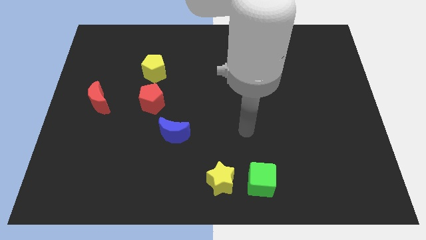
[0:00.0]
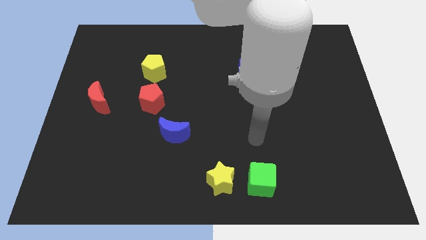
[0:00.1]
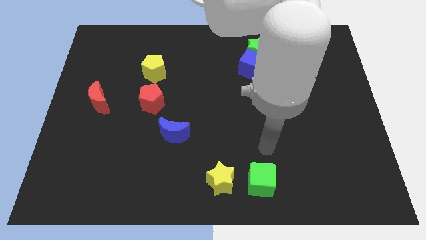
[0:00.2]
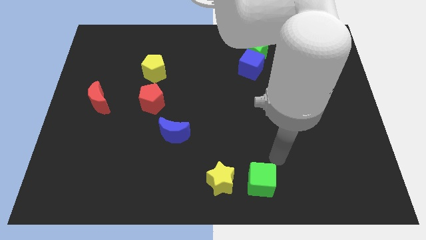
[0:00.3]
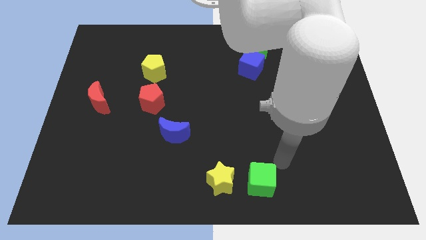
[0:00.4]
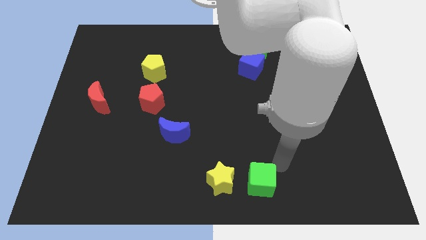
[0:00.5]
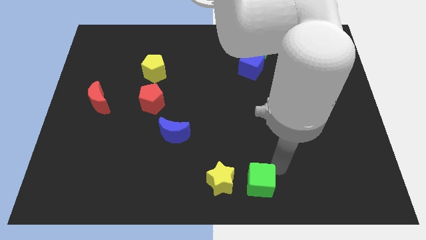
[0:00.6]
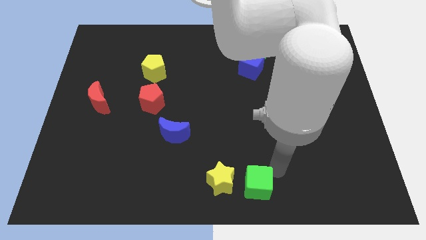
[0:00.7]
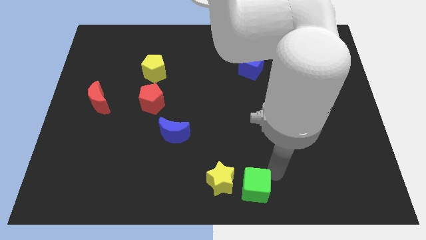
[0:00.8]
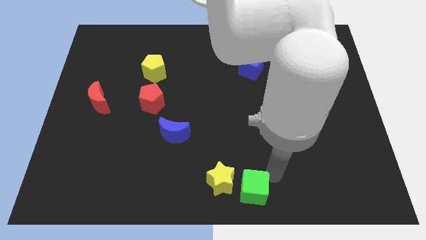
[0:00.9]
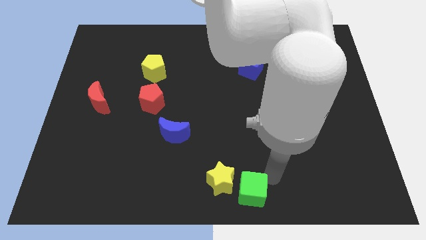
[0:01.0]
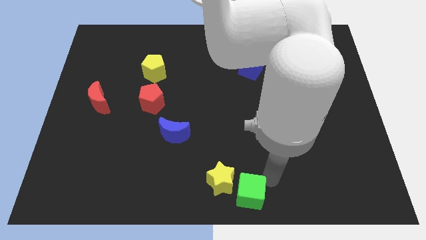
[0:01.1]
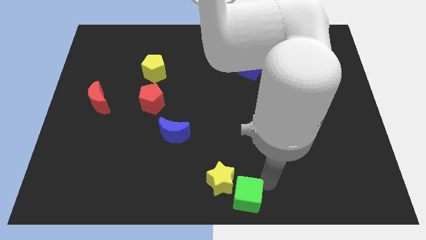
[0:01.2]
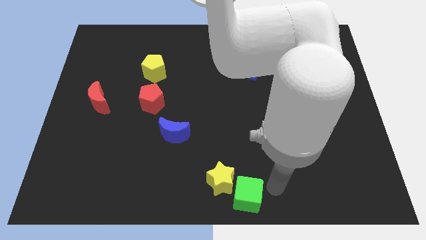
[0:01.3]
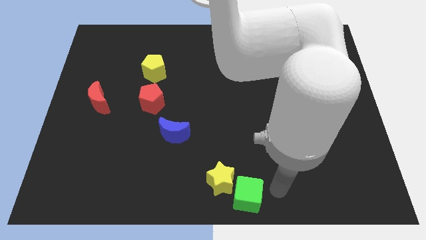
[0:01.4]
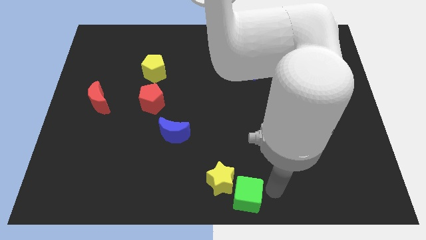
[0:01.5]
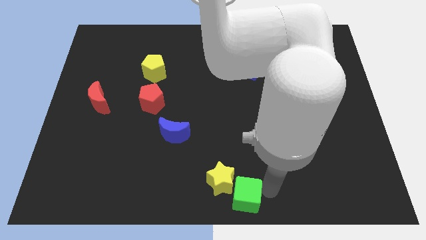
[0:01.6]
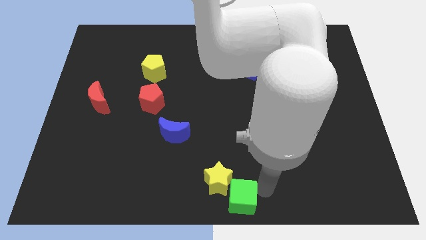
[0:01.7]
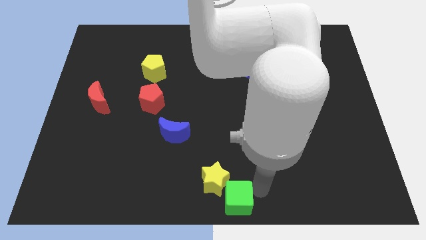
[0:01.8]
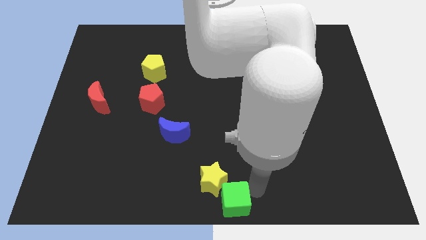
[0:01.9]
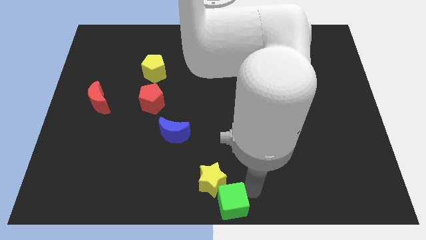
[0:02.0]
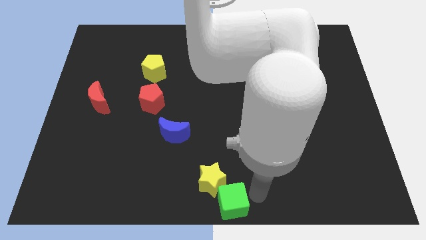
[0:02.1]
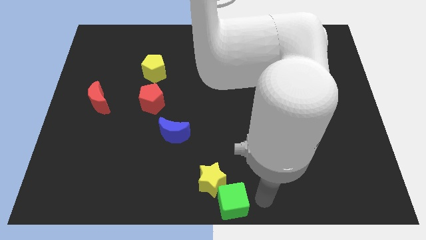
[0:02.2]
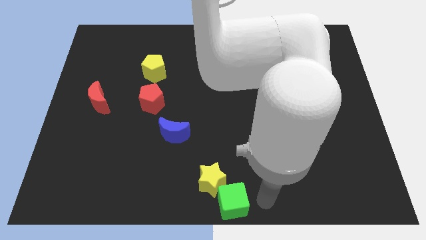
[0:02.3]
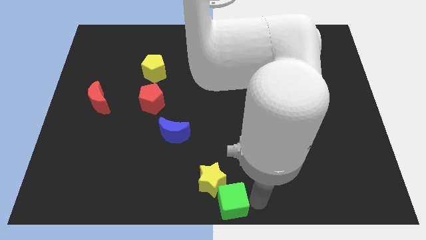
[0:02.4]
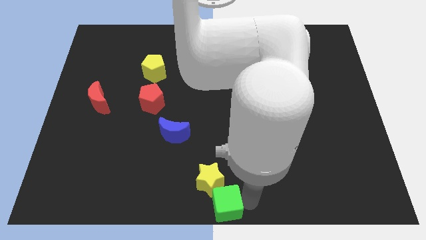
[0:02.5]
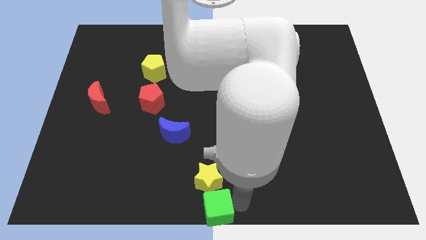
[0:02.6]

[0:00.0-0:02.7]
slide the green cube to the left a little bit

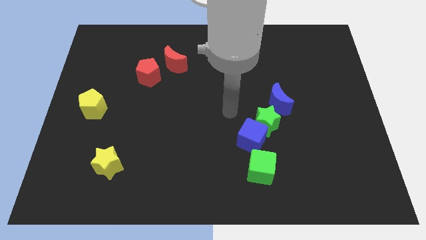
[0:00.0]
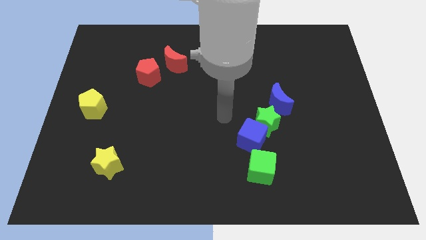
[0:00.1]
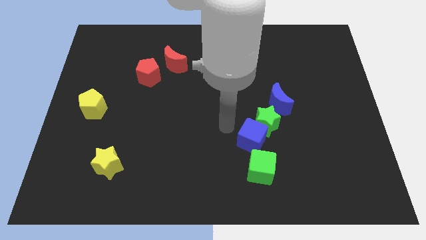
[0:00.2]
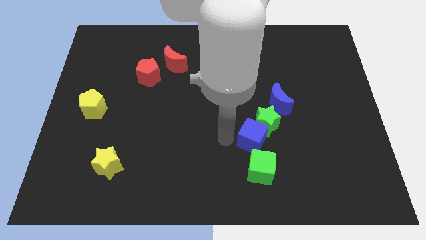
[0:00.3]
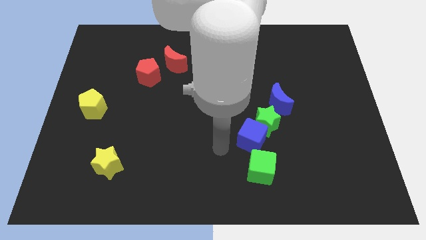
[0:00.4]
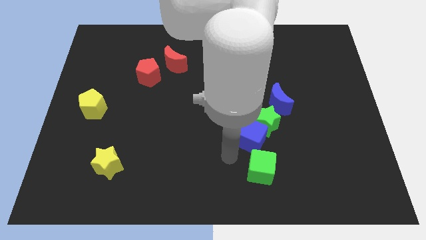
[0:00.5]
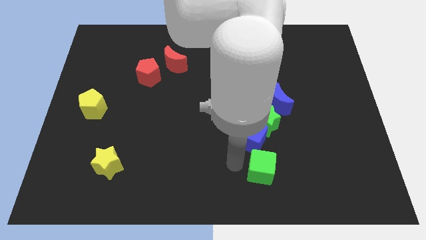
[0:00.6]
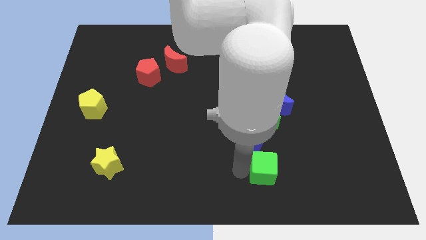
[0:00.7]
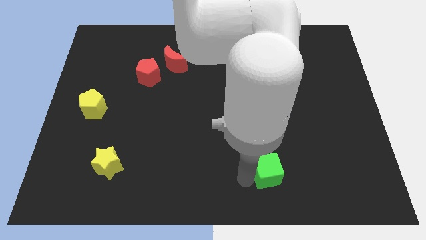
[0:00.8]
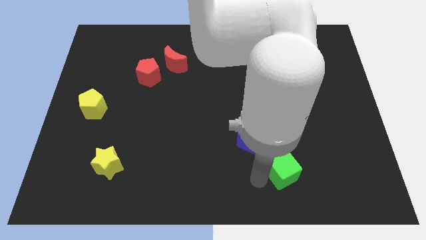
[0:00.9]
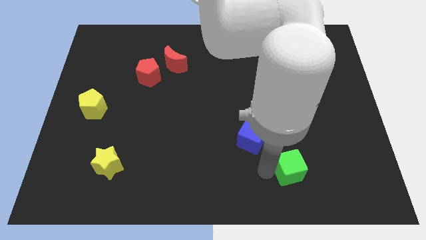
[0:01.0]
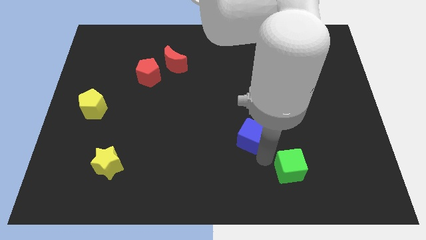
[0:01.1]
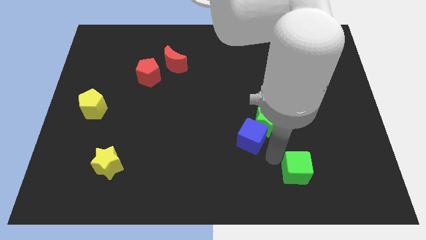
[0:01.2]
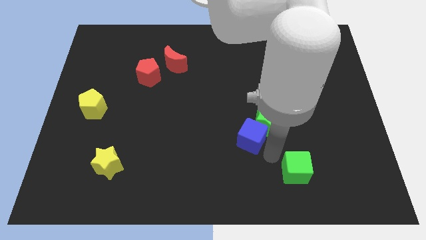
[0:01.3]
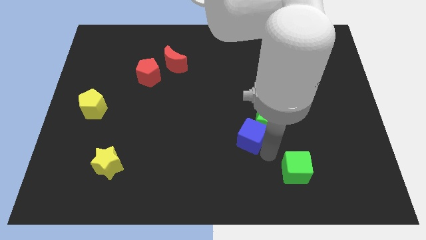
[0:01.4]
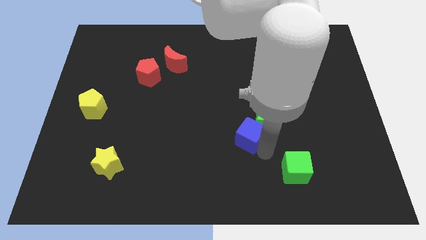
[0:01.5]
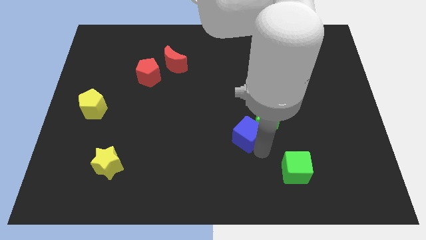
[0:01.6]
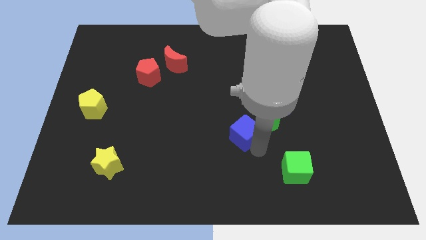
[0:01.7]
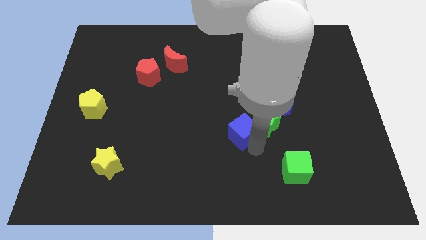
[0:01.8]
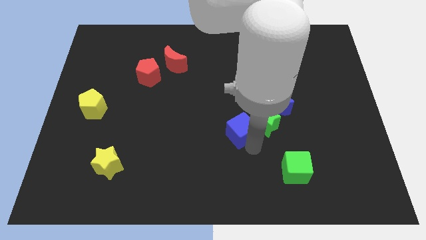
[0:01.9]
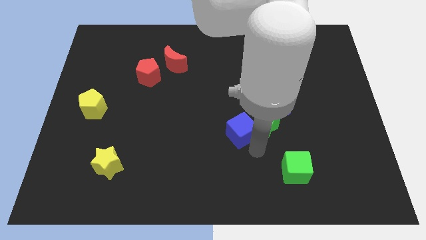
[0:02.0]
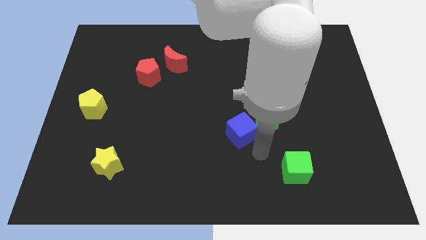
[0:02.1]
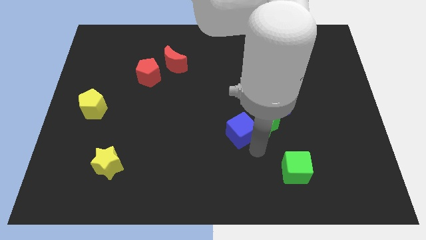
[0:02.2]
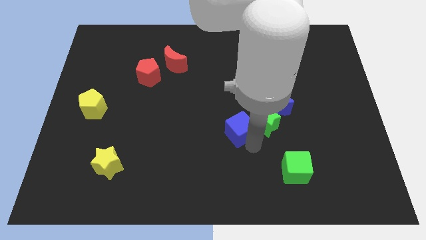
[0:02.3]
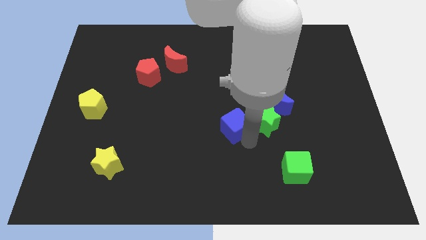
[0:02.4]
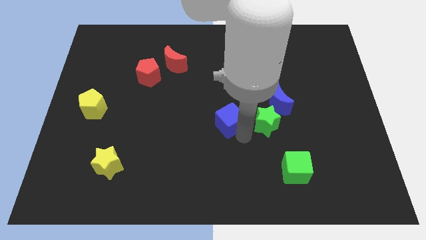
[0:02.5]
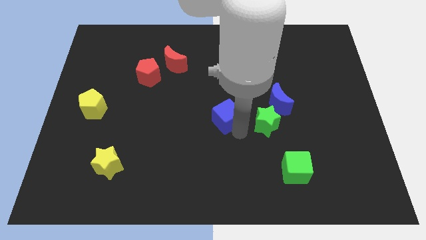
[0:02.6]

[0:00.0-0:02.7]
slide the blue cube upwards and to the left diagonally somewhat

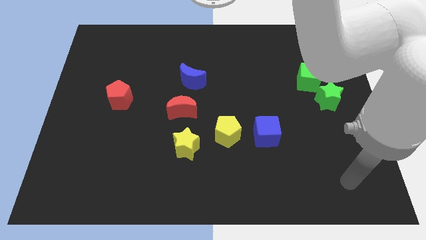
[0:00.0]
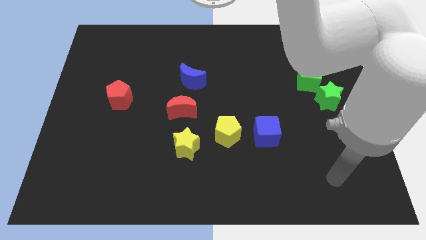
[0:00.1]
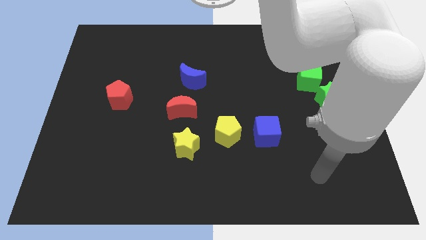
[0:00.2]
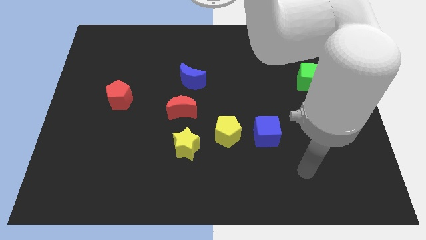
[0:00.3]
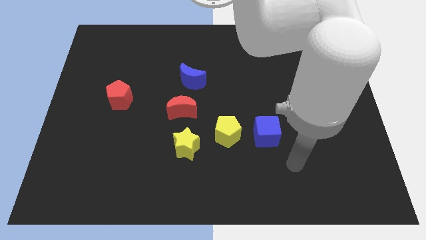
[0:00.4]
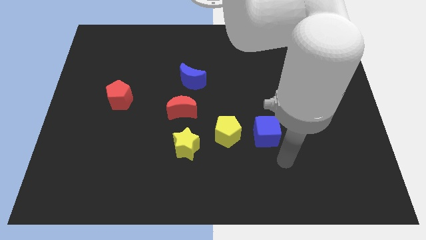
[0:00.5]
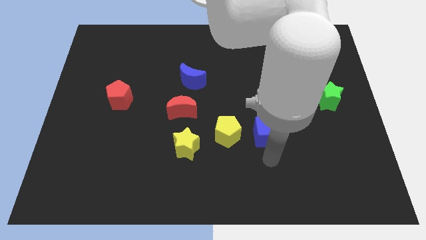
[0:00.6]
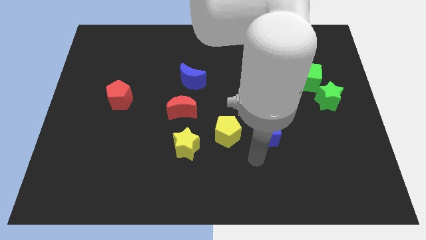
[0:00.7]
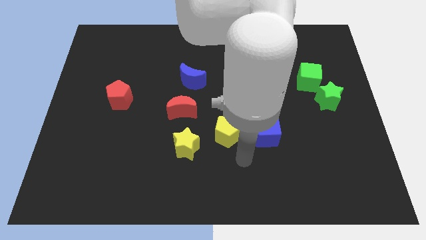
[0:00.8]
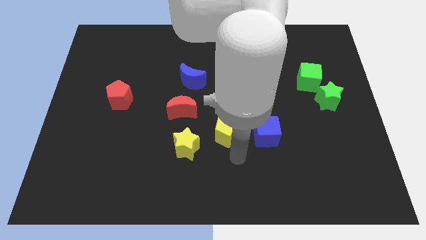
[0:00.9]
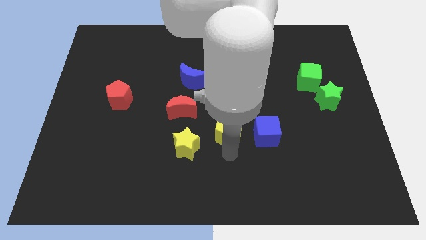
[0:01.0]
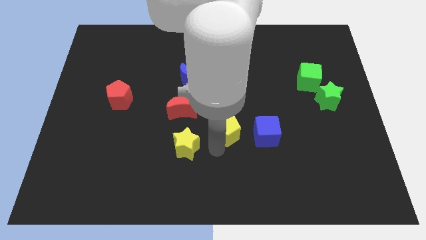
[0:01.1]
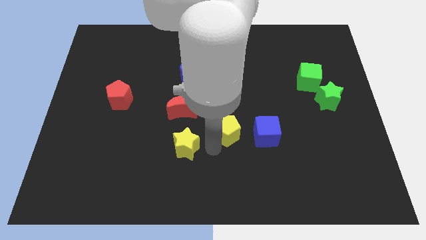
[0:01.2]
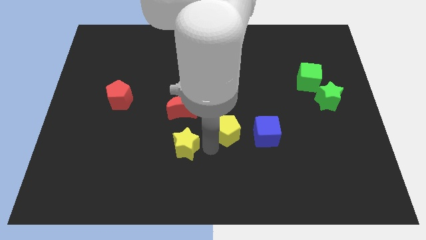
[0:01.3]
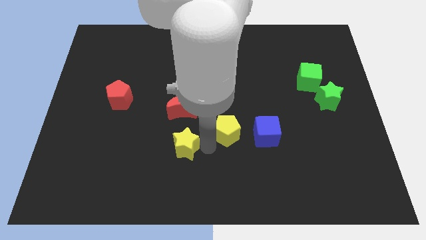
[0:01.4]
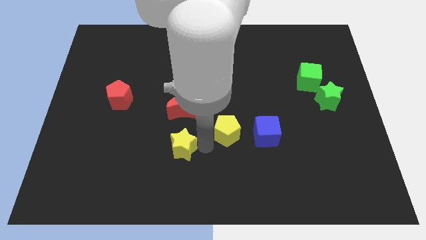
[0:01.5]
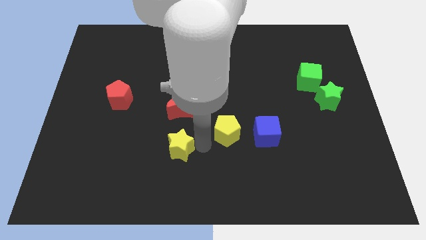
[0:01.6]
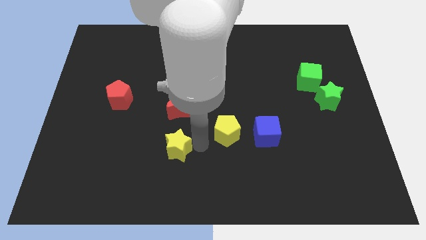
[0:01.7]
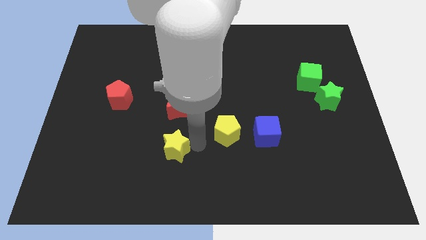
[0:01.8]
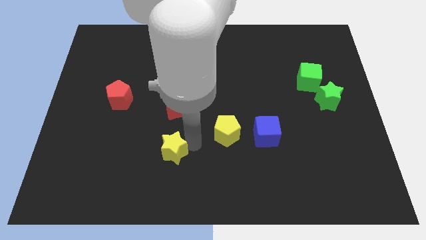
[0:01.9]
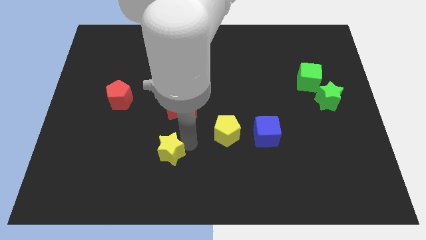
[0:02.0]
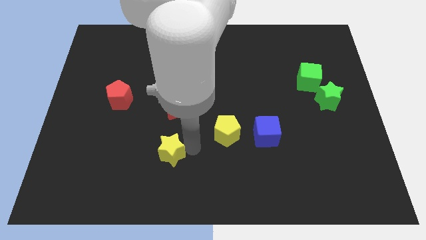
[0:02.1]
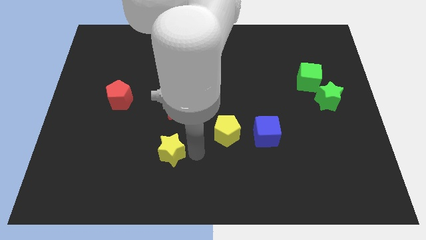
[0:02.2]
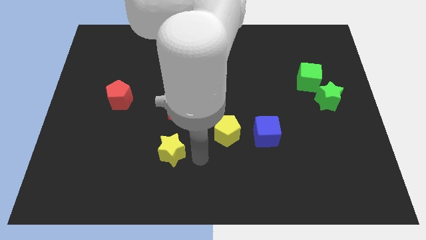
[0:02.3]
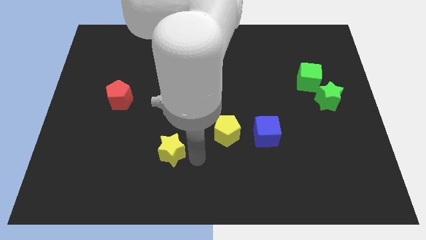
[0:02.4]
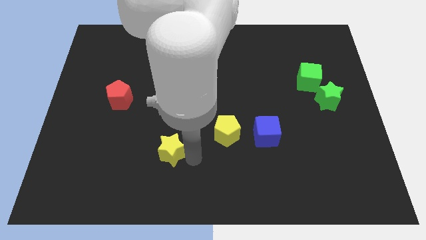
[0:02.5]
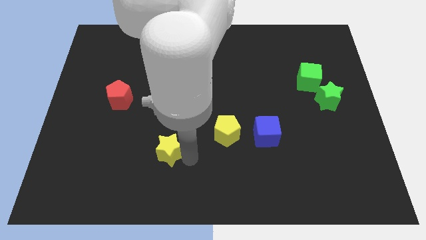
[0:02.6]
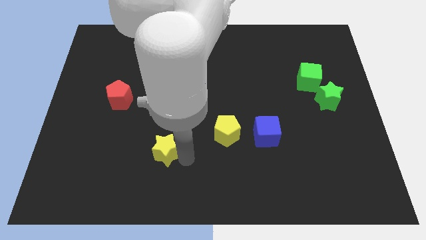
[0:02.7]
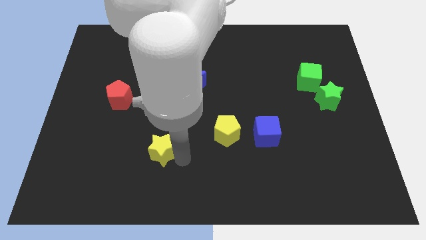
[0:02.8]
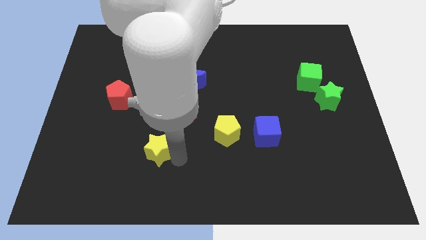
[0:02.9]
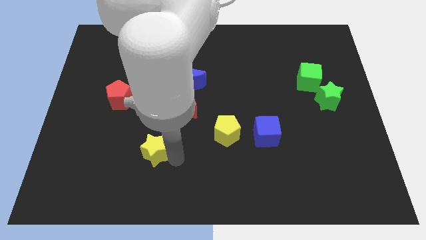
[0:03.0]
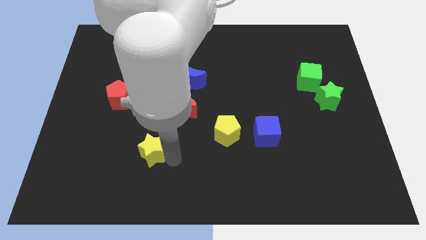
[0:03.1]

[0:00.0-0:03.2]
push the yellow star to the left a little bit
